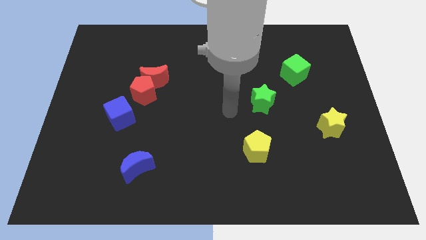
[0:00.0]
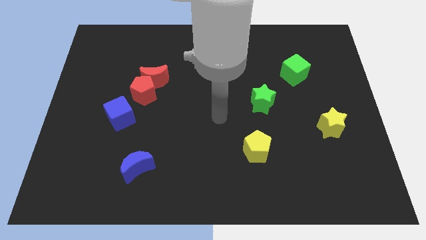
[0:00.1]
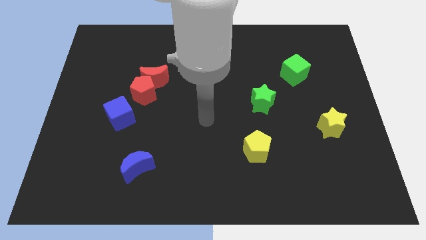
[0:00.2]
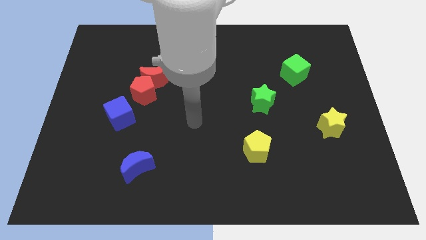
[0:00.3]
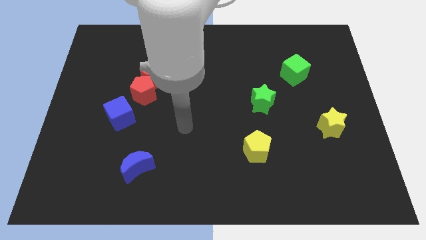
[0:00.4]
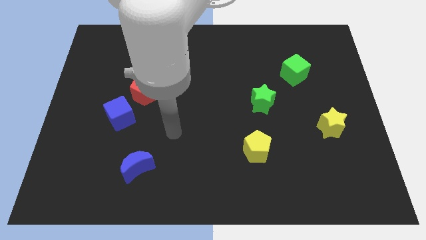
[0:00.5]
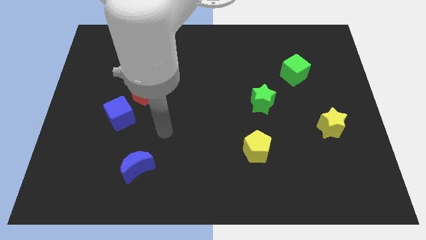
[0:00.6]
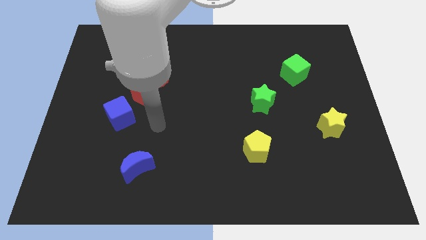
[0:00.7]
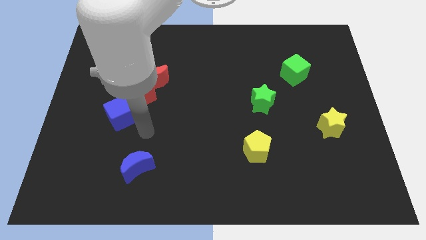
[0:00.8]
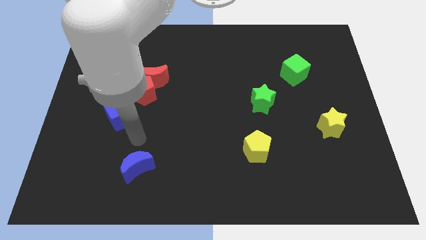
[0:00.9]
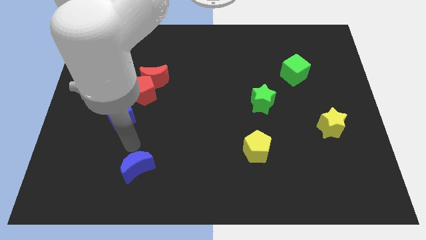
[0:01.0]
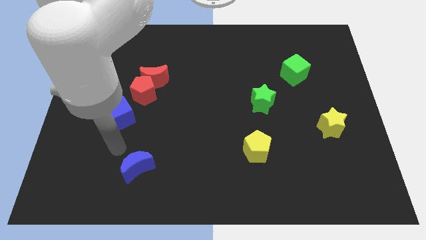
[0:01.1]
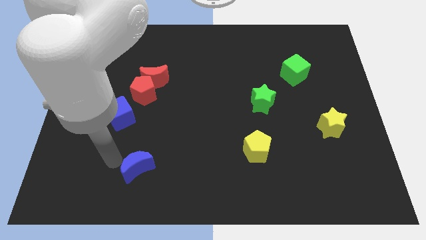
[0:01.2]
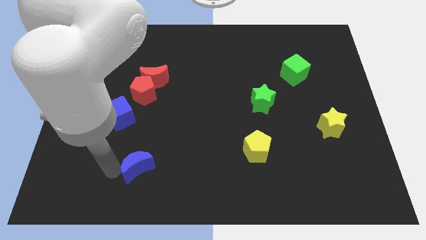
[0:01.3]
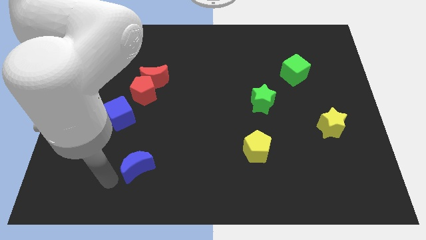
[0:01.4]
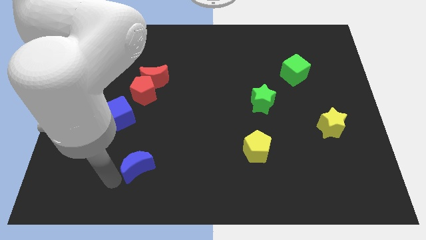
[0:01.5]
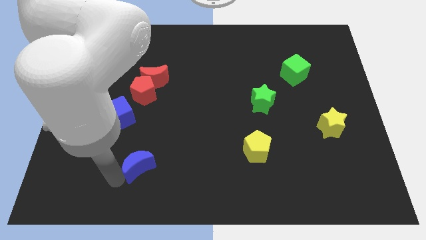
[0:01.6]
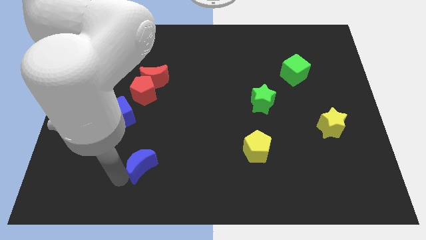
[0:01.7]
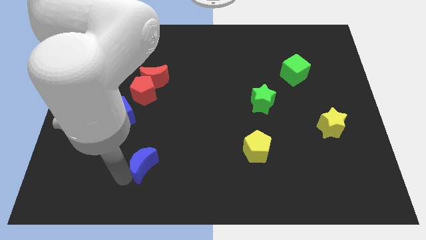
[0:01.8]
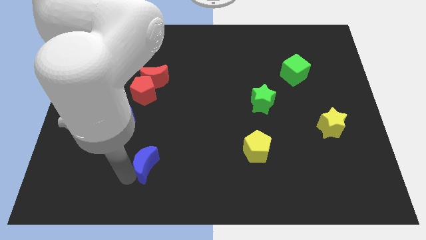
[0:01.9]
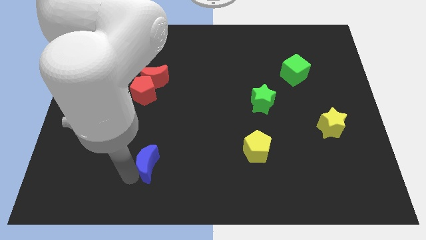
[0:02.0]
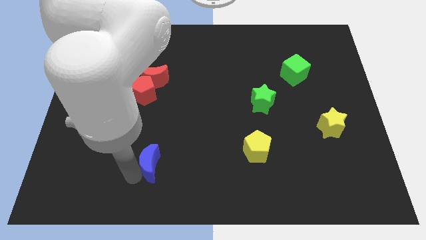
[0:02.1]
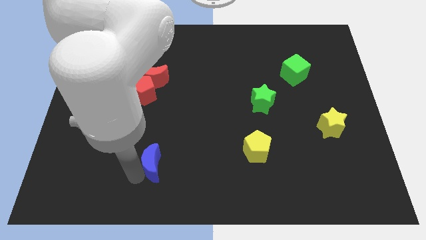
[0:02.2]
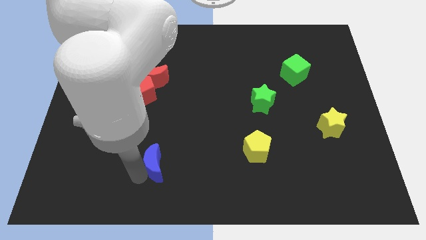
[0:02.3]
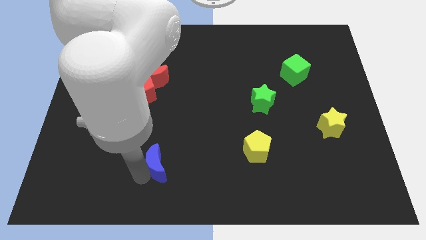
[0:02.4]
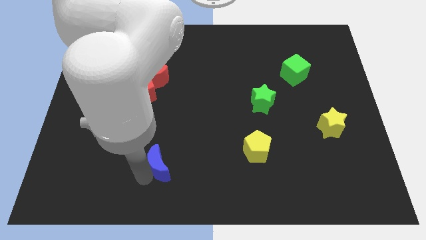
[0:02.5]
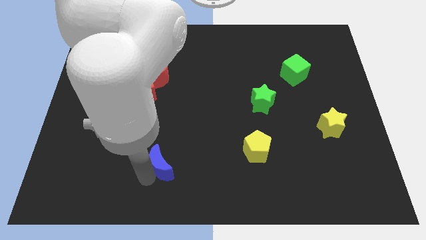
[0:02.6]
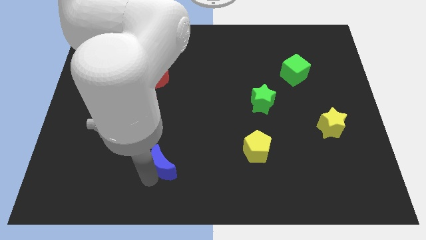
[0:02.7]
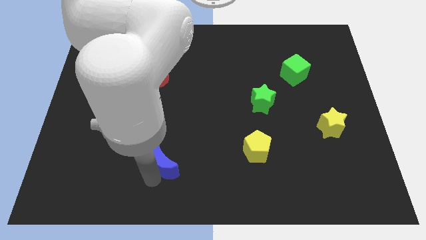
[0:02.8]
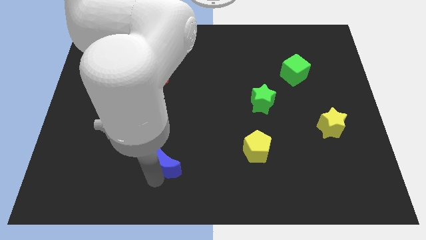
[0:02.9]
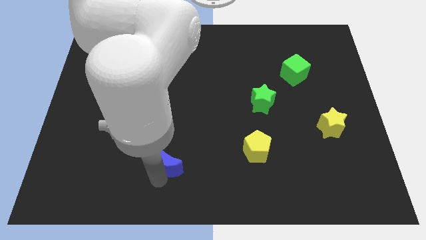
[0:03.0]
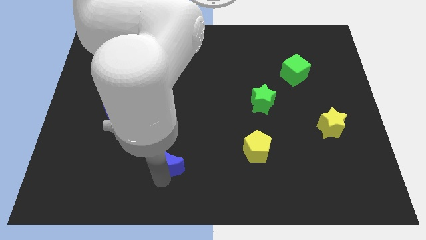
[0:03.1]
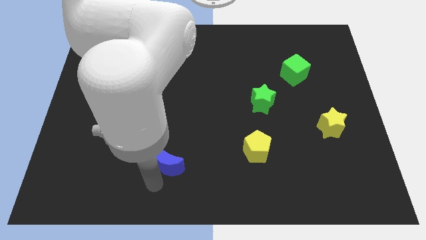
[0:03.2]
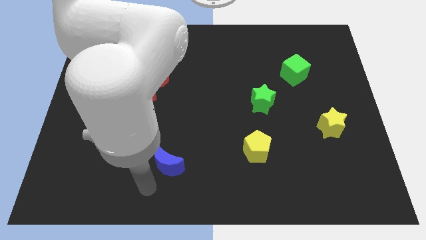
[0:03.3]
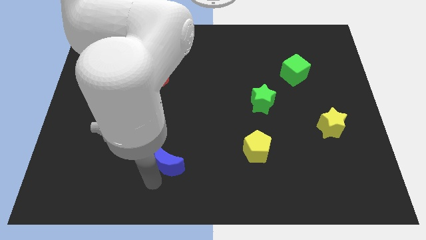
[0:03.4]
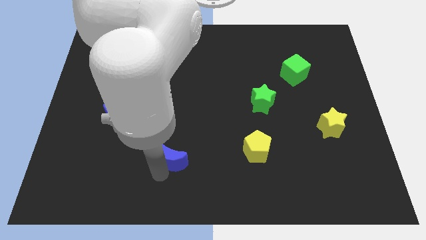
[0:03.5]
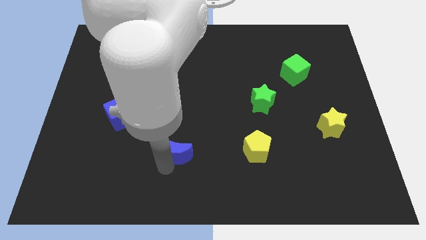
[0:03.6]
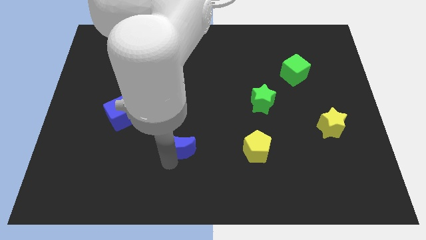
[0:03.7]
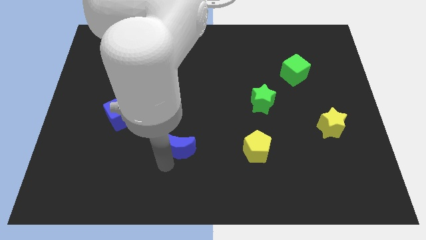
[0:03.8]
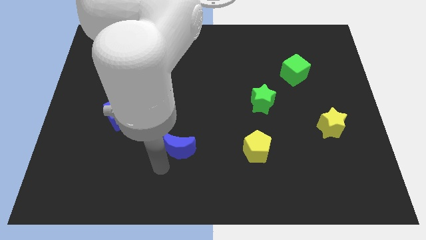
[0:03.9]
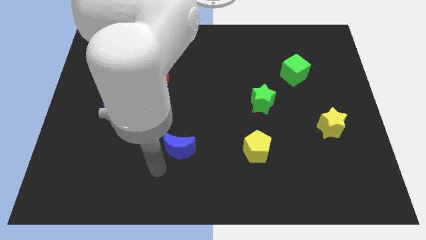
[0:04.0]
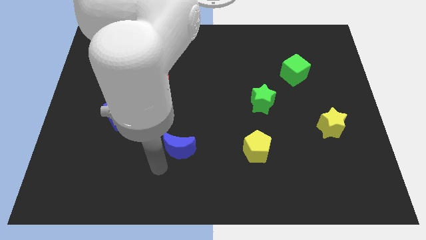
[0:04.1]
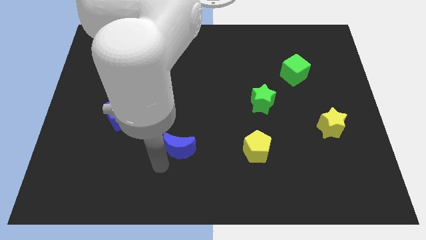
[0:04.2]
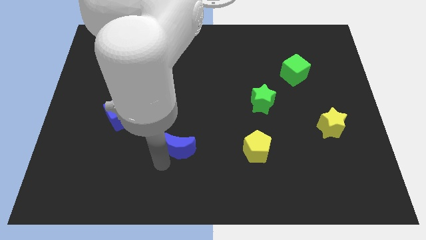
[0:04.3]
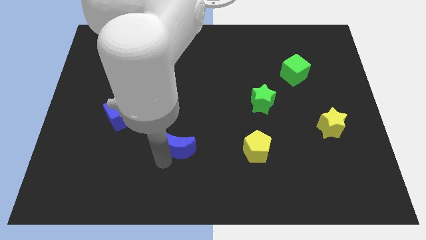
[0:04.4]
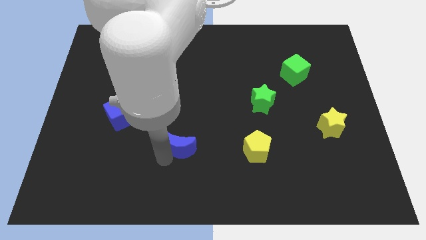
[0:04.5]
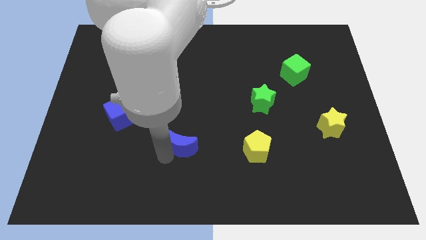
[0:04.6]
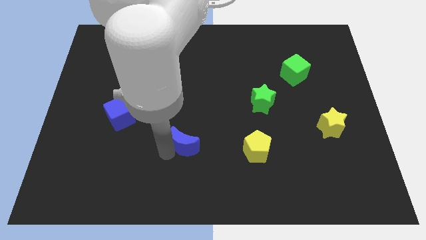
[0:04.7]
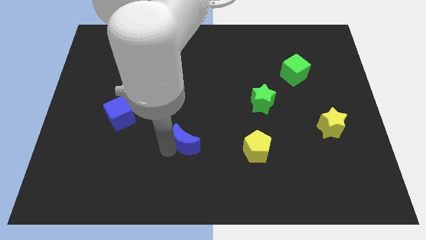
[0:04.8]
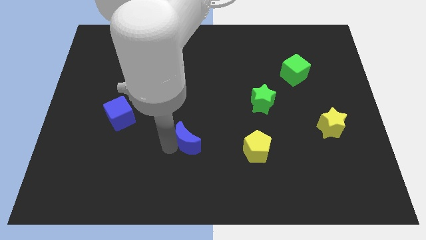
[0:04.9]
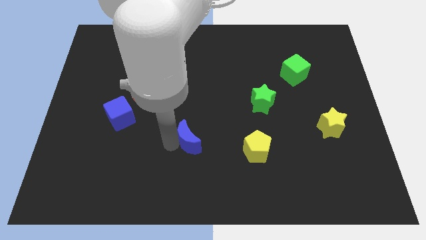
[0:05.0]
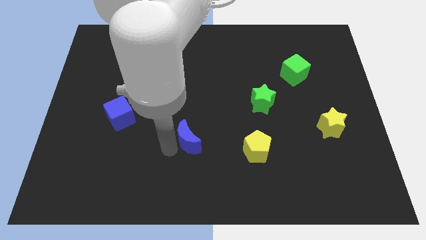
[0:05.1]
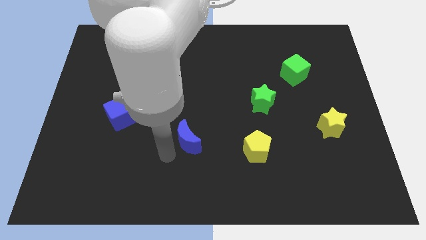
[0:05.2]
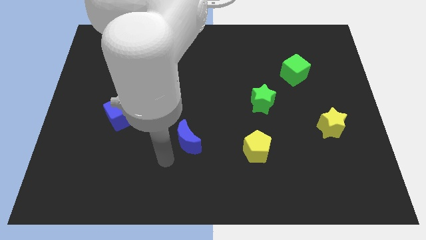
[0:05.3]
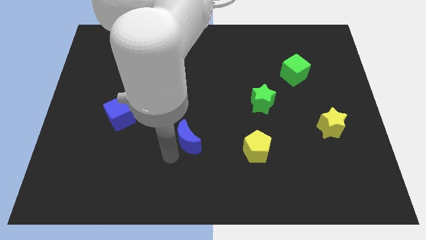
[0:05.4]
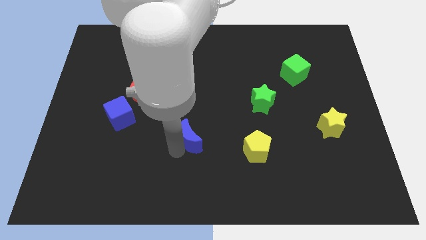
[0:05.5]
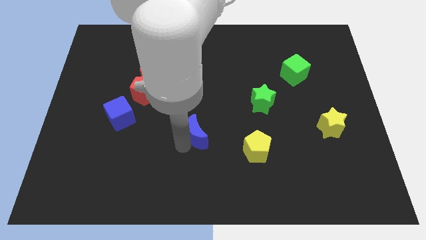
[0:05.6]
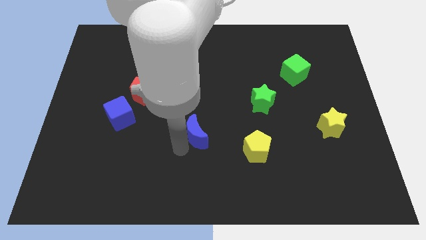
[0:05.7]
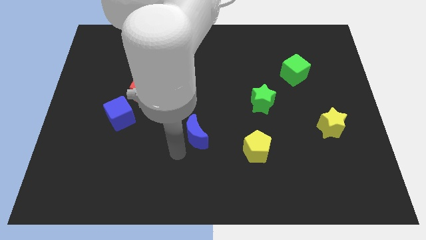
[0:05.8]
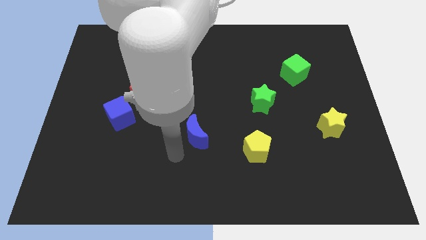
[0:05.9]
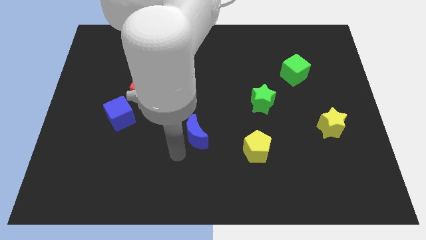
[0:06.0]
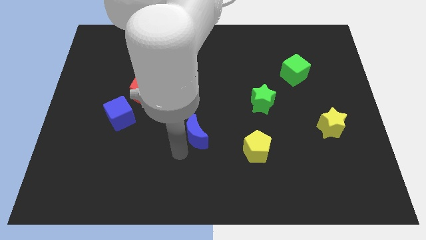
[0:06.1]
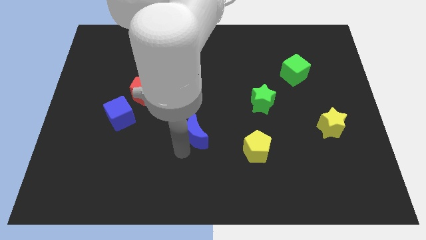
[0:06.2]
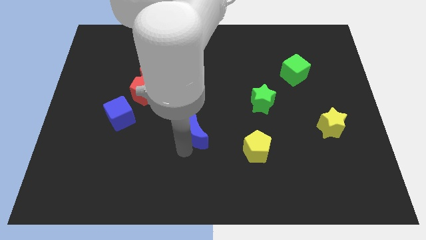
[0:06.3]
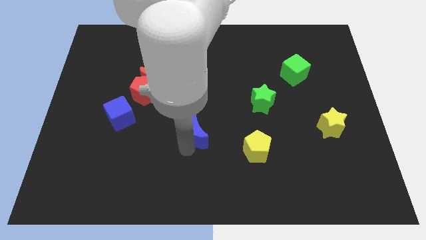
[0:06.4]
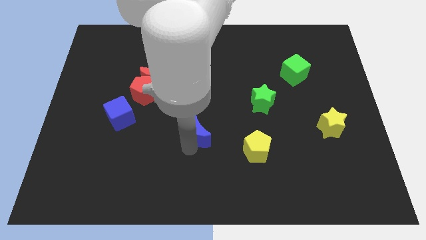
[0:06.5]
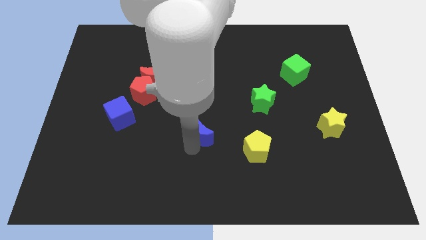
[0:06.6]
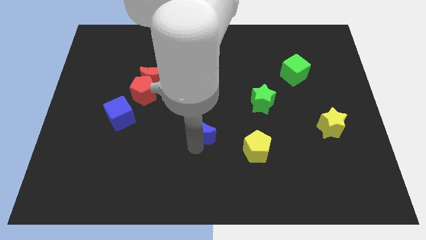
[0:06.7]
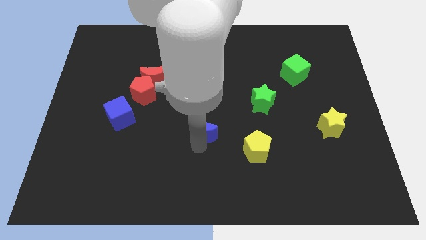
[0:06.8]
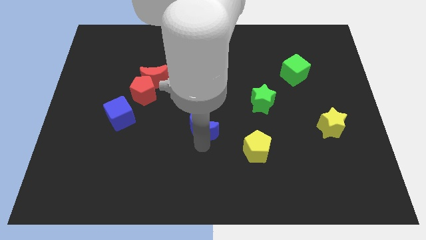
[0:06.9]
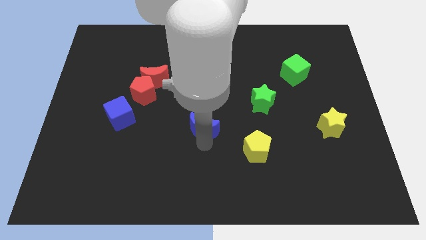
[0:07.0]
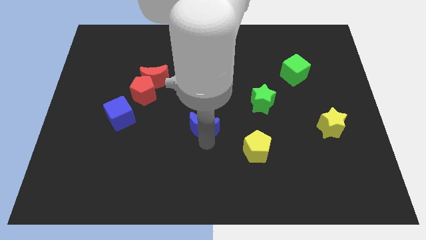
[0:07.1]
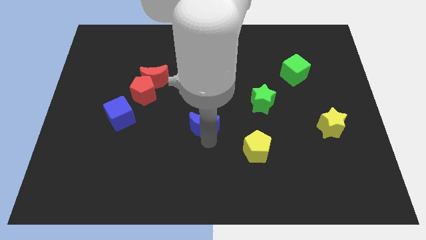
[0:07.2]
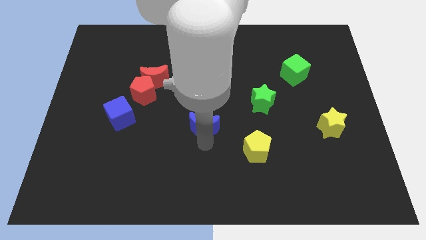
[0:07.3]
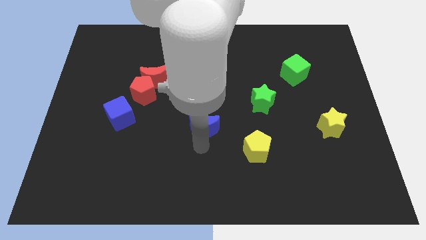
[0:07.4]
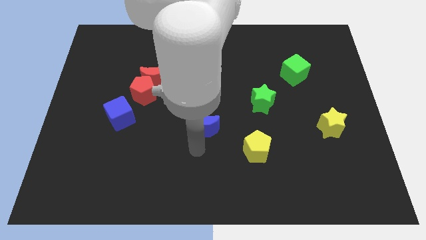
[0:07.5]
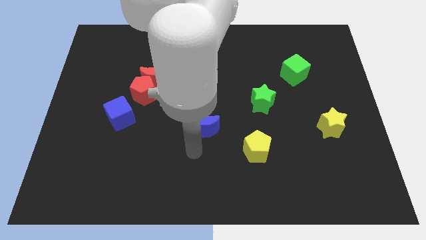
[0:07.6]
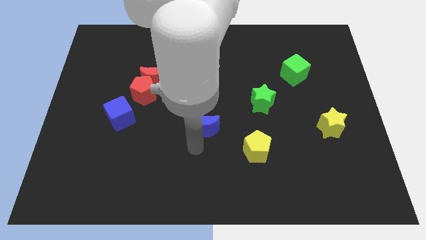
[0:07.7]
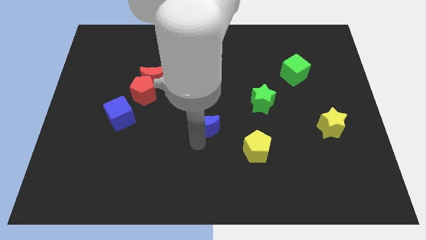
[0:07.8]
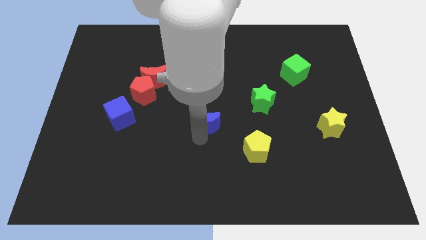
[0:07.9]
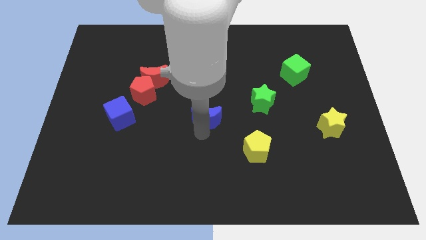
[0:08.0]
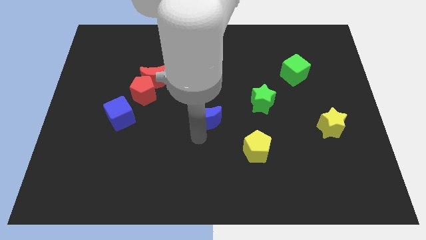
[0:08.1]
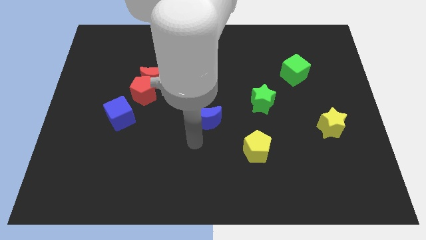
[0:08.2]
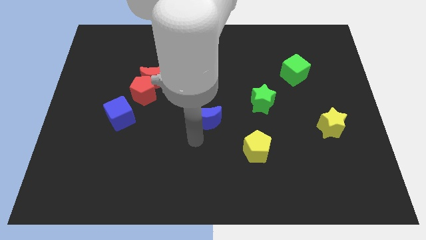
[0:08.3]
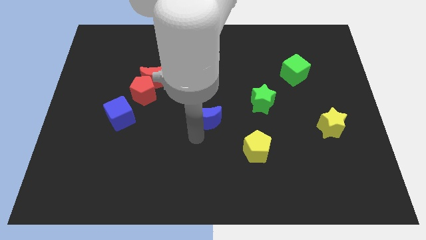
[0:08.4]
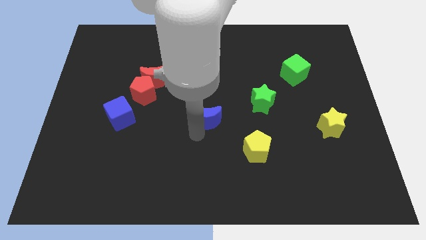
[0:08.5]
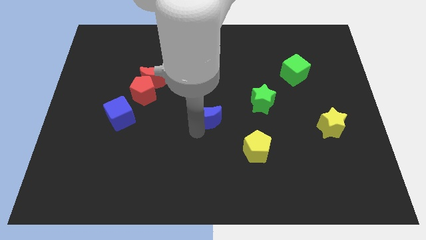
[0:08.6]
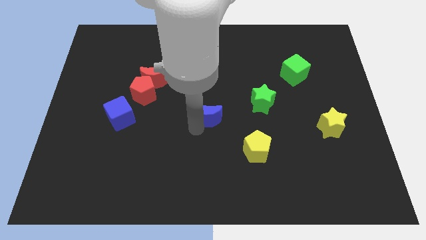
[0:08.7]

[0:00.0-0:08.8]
slide the blue moon just left of the green star
